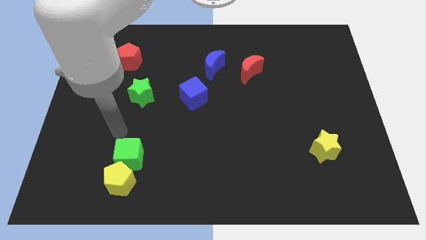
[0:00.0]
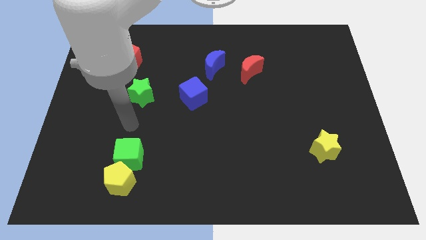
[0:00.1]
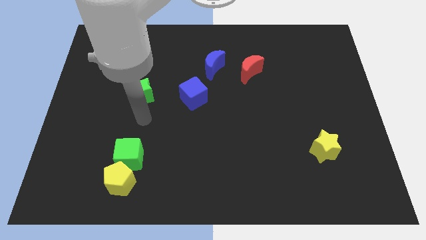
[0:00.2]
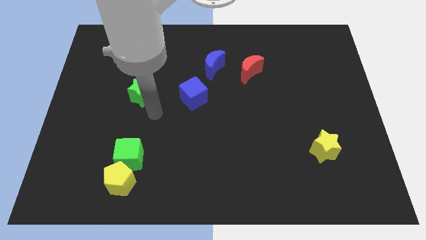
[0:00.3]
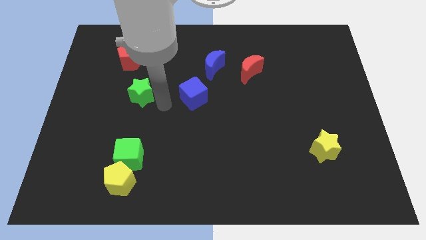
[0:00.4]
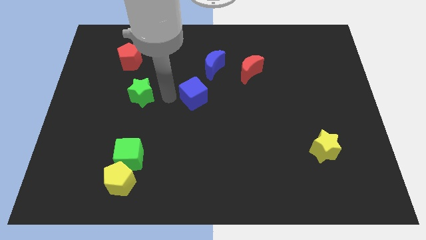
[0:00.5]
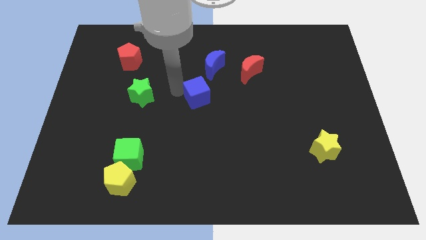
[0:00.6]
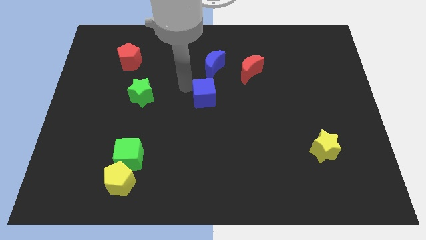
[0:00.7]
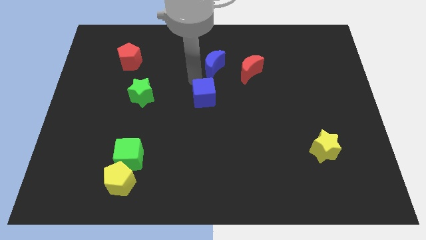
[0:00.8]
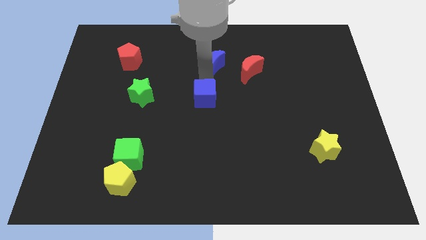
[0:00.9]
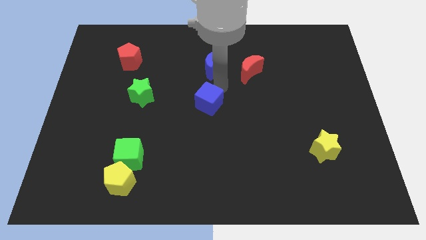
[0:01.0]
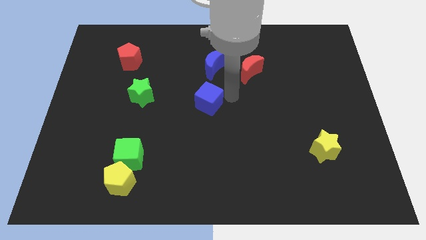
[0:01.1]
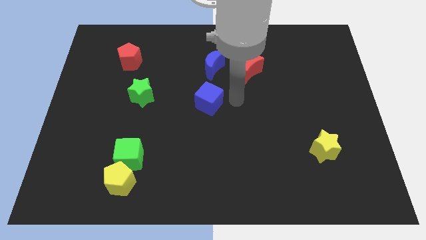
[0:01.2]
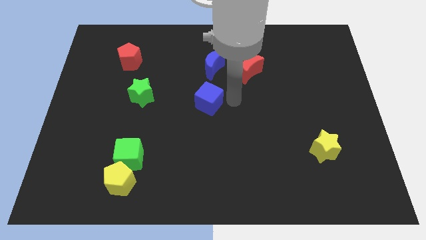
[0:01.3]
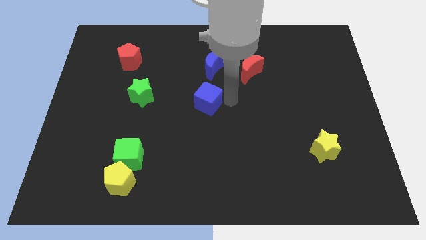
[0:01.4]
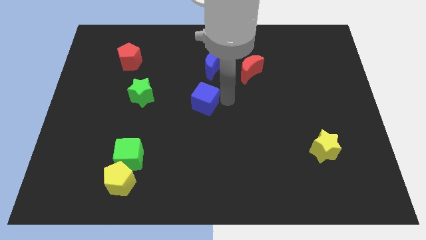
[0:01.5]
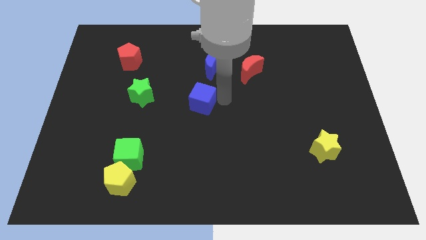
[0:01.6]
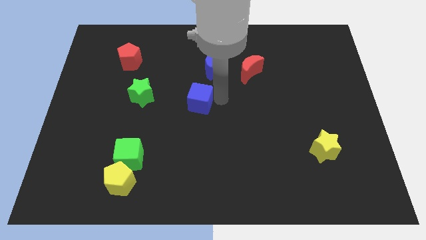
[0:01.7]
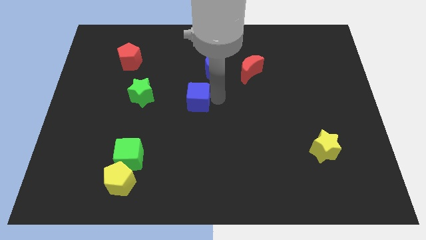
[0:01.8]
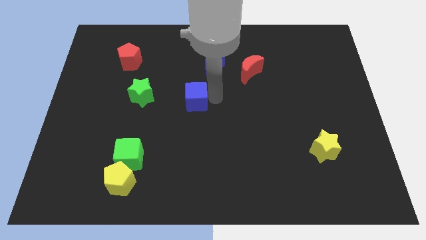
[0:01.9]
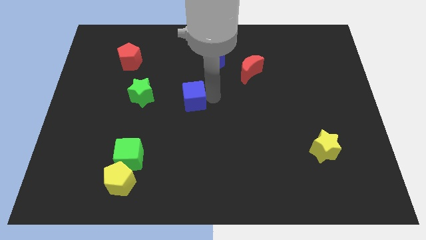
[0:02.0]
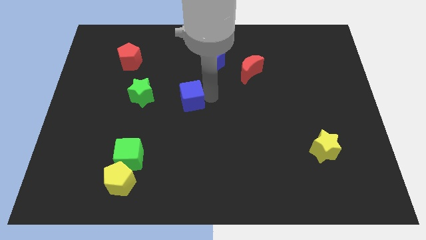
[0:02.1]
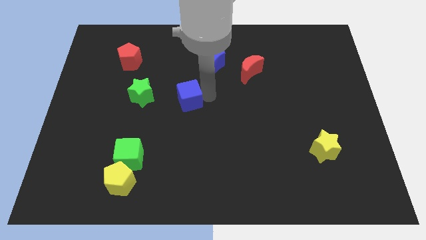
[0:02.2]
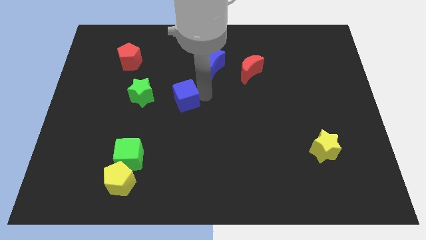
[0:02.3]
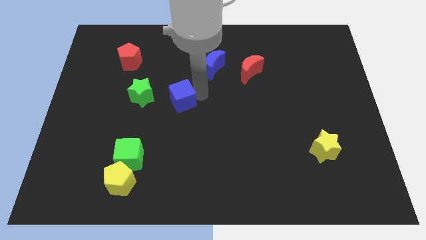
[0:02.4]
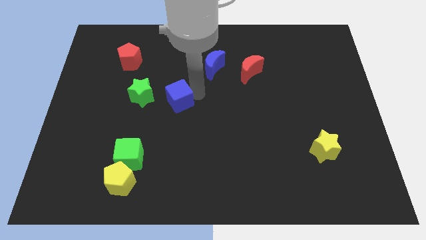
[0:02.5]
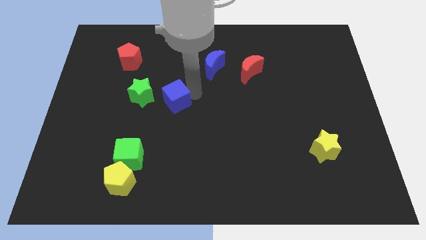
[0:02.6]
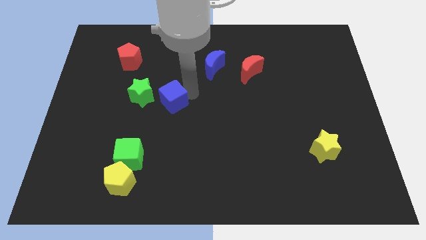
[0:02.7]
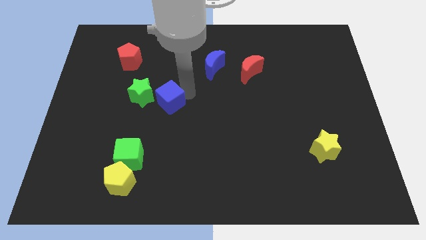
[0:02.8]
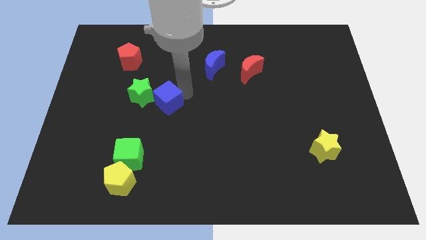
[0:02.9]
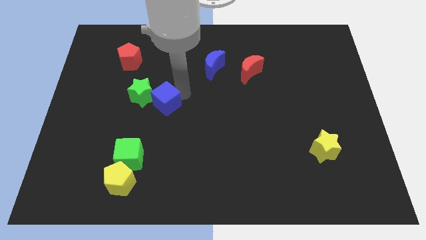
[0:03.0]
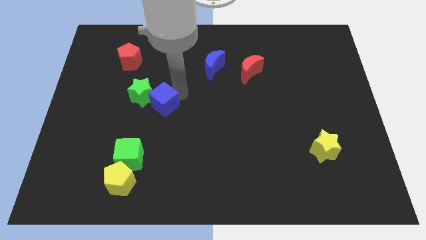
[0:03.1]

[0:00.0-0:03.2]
slightly move the blue cube left

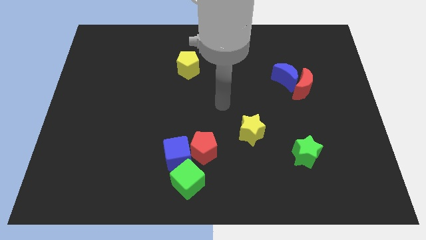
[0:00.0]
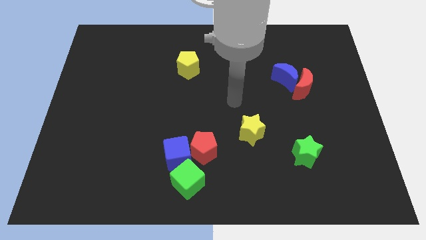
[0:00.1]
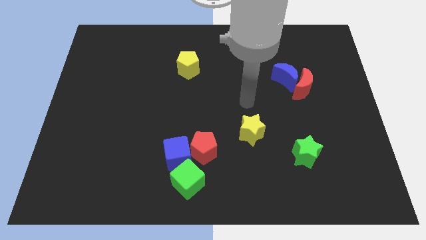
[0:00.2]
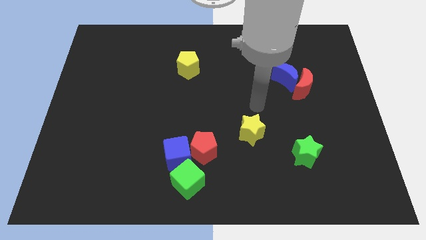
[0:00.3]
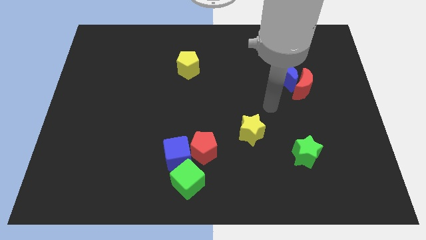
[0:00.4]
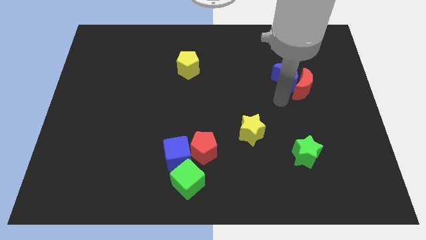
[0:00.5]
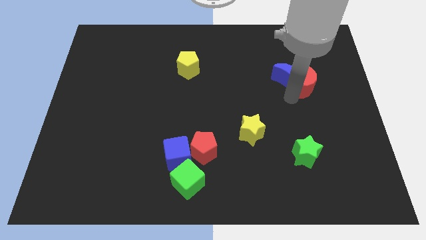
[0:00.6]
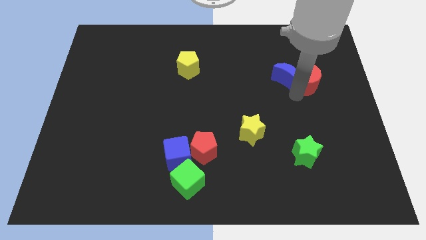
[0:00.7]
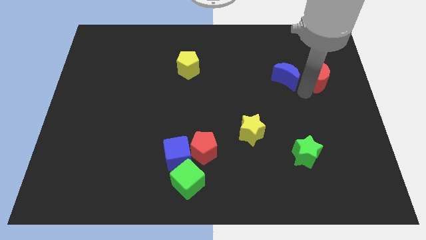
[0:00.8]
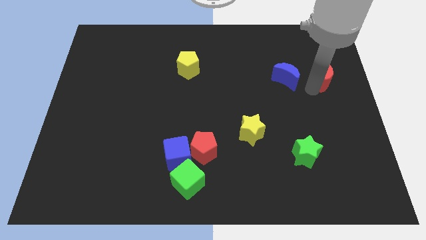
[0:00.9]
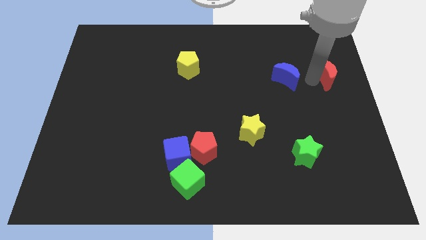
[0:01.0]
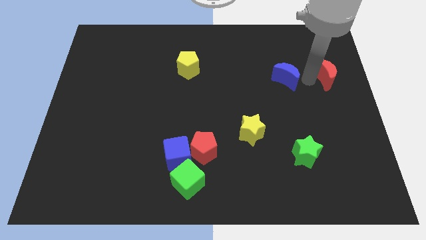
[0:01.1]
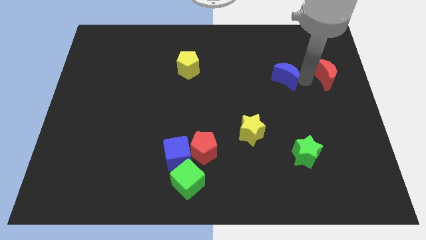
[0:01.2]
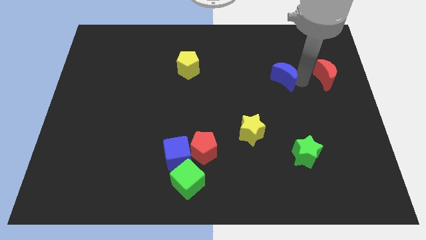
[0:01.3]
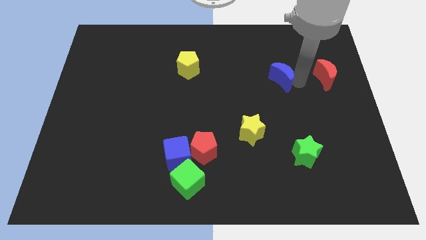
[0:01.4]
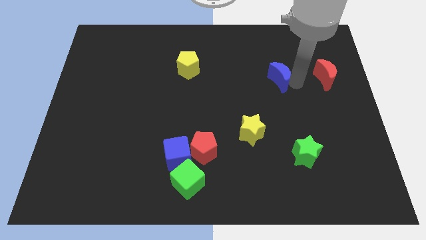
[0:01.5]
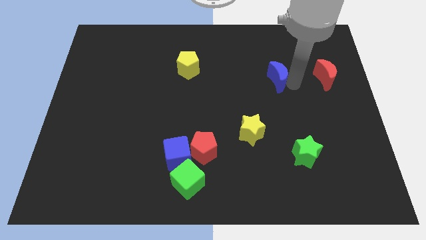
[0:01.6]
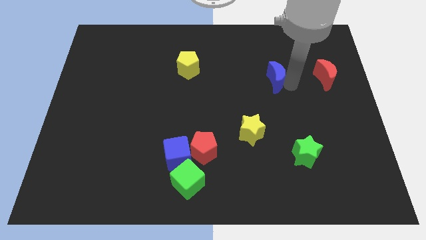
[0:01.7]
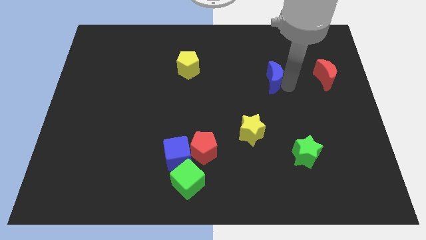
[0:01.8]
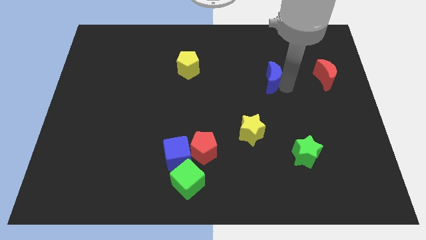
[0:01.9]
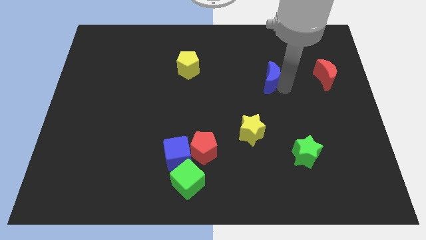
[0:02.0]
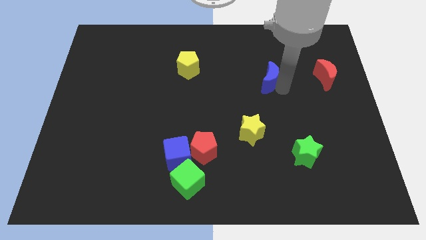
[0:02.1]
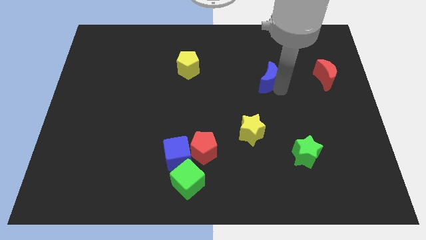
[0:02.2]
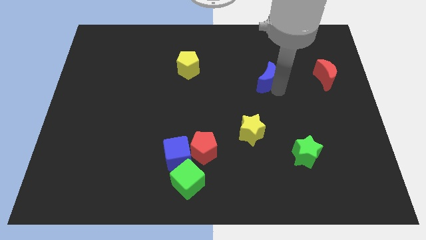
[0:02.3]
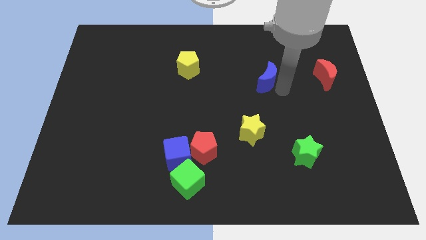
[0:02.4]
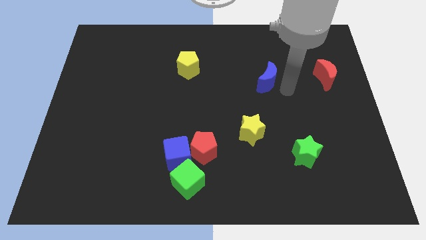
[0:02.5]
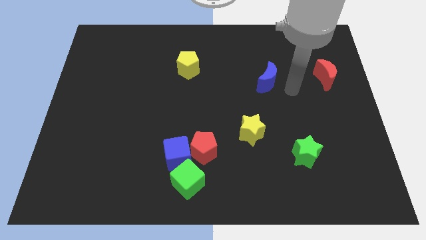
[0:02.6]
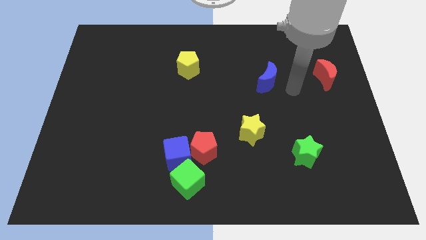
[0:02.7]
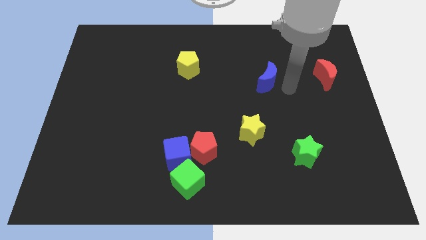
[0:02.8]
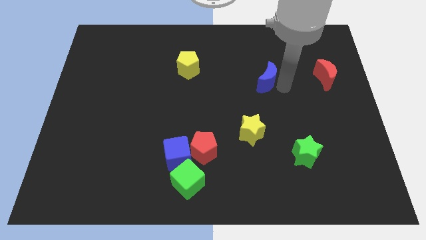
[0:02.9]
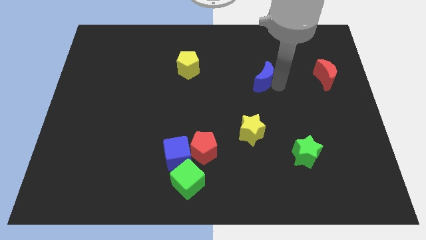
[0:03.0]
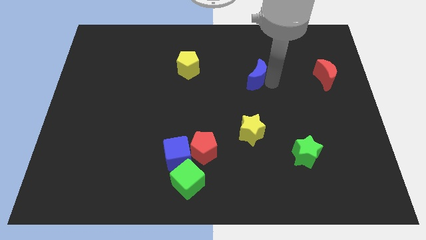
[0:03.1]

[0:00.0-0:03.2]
move the blue moon to the left a little bit

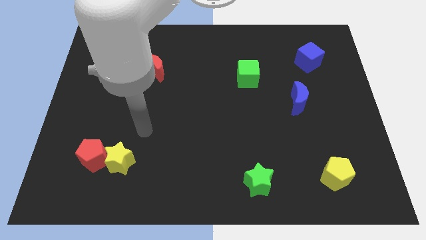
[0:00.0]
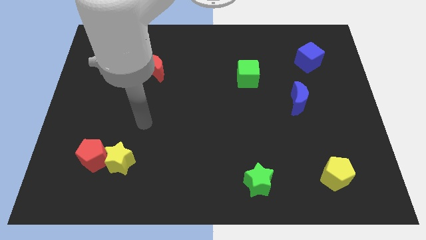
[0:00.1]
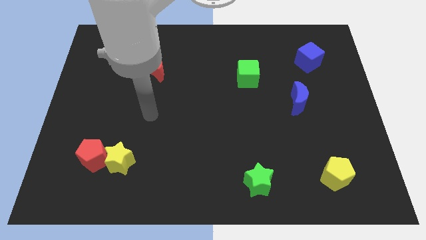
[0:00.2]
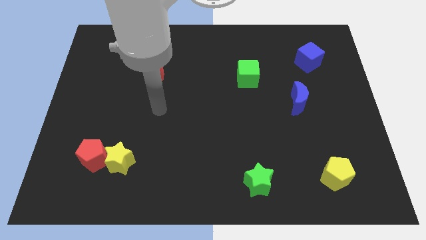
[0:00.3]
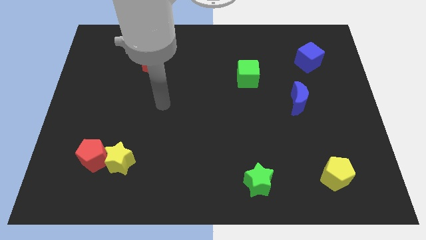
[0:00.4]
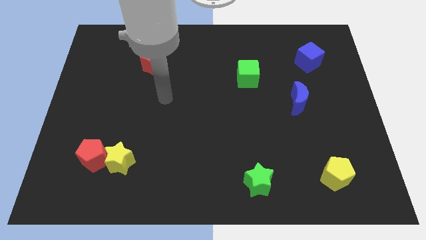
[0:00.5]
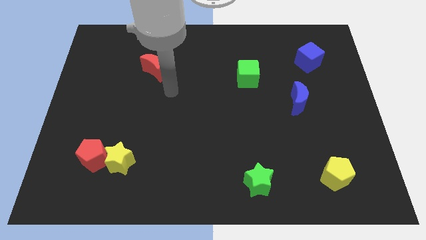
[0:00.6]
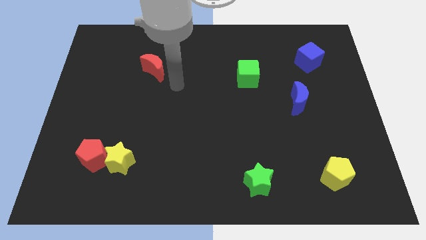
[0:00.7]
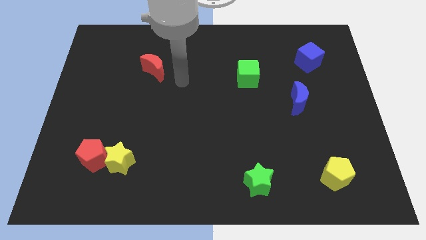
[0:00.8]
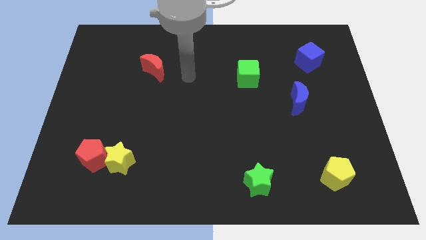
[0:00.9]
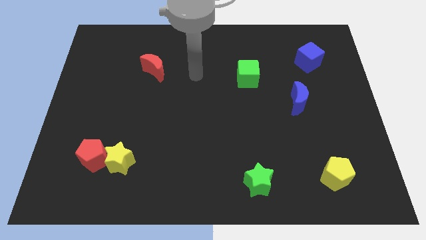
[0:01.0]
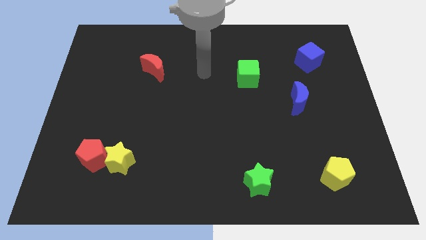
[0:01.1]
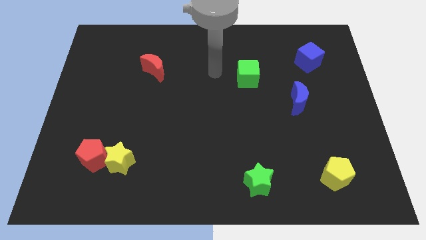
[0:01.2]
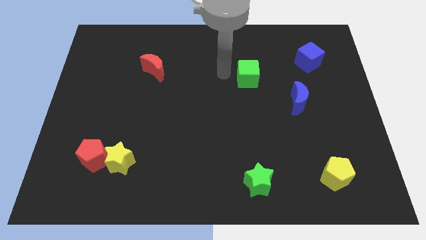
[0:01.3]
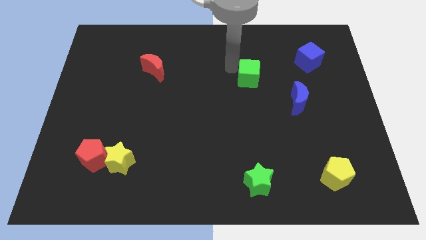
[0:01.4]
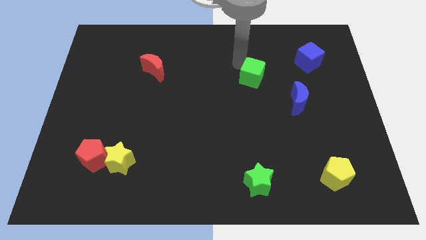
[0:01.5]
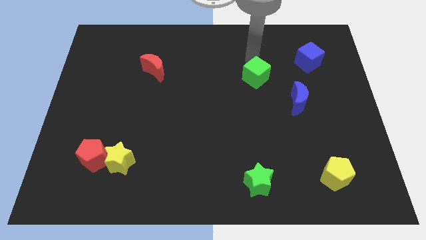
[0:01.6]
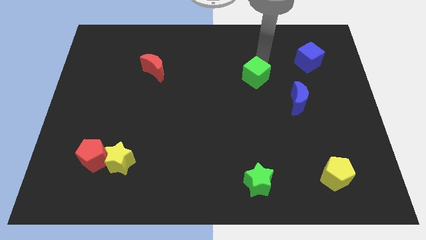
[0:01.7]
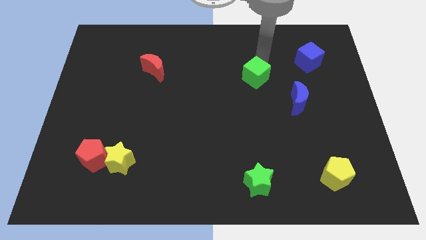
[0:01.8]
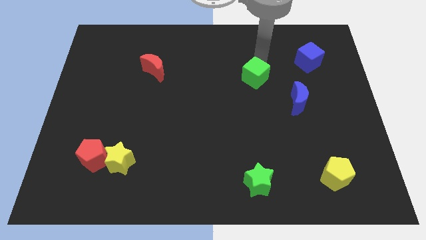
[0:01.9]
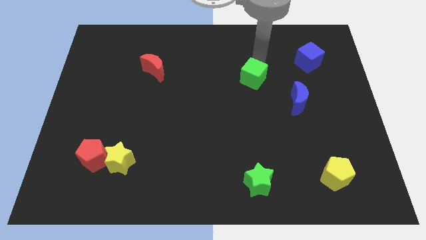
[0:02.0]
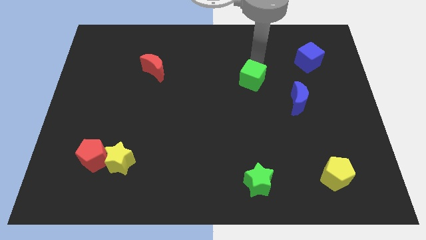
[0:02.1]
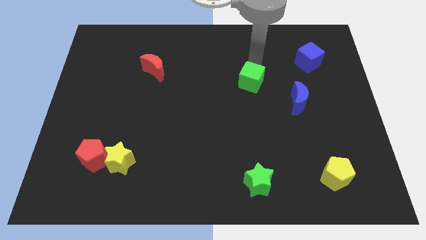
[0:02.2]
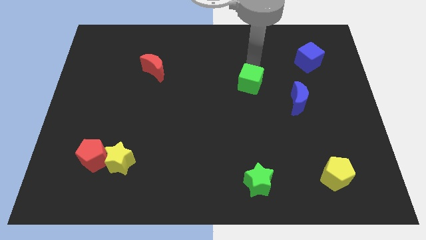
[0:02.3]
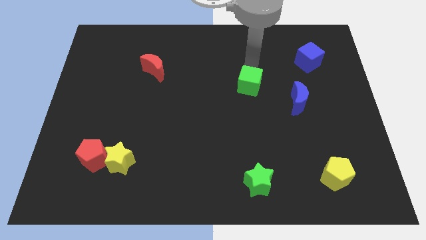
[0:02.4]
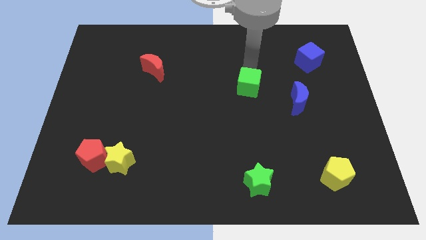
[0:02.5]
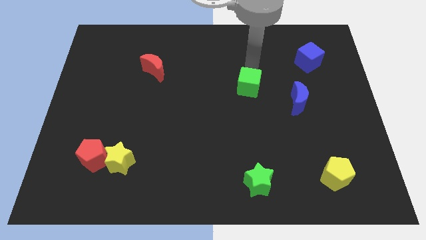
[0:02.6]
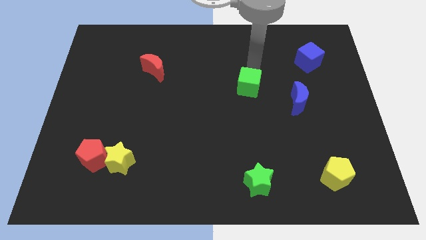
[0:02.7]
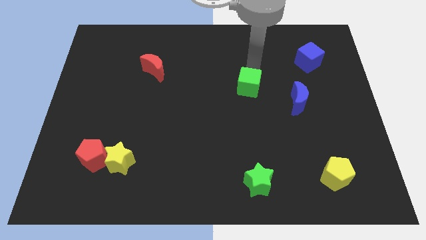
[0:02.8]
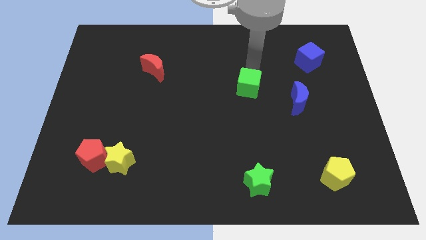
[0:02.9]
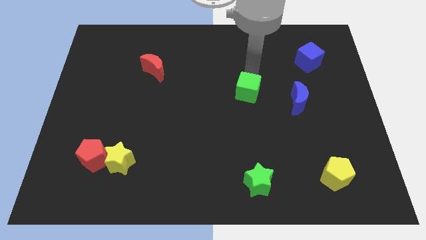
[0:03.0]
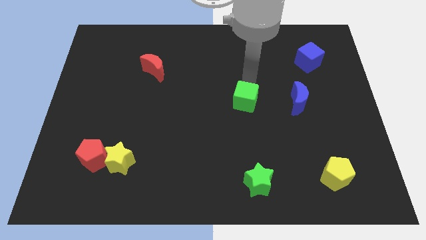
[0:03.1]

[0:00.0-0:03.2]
slide the green cube somewhat downwards
